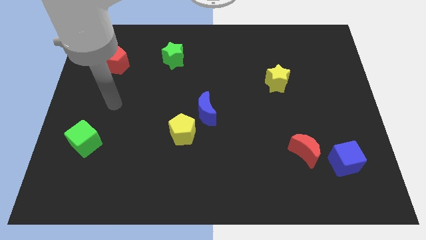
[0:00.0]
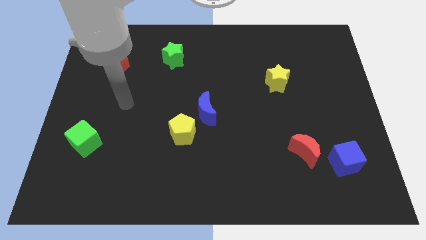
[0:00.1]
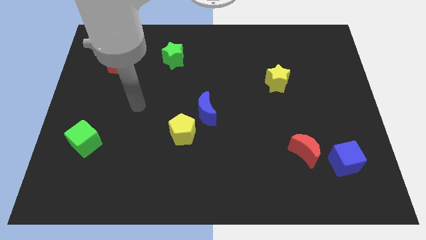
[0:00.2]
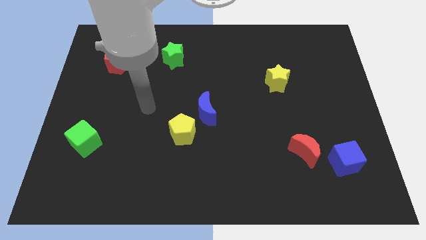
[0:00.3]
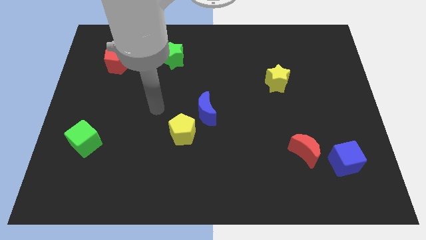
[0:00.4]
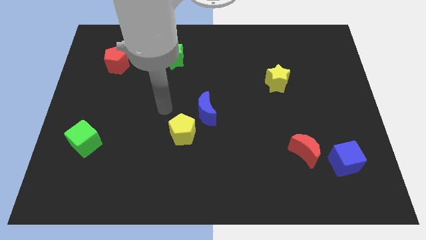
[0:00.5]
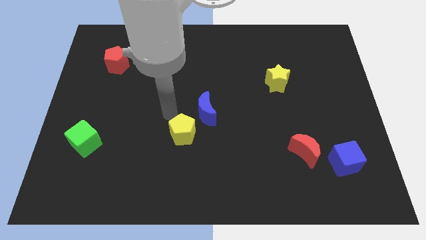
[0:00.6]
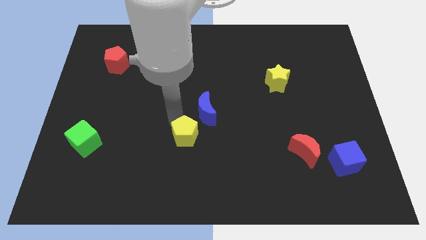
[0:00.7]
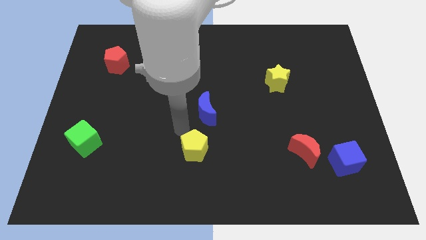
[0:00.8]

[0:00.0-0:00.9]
pull the blue moon apart from the yellow pentagon

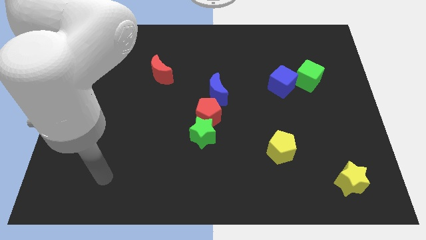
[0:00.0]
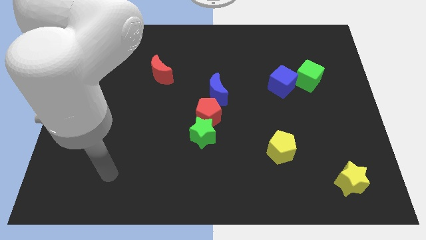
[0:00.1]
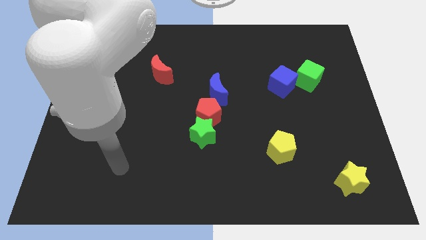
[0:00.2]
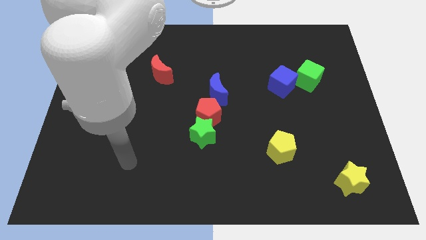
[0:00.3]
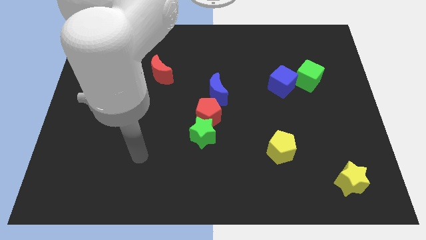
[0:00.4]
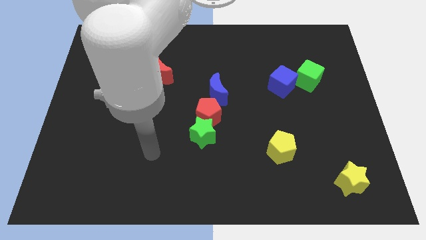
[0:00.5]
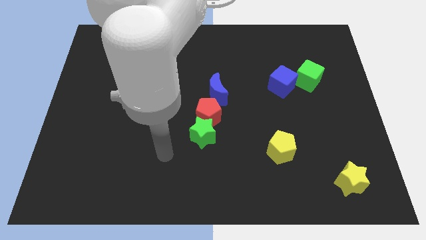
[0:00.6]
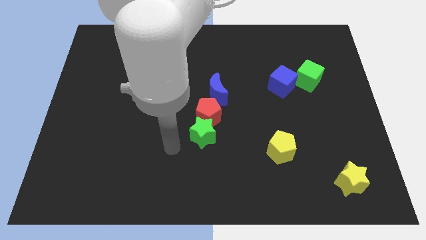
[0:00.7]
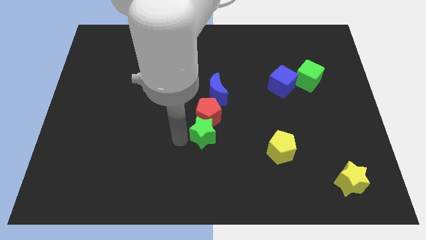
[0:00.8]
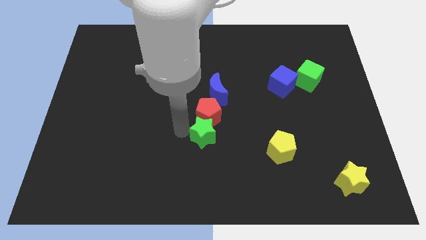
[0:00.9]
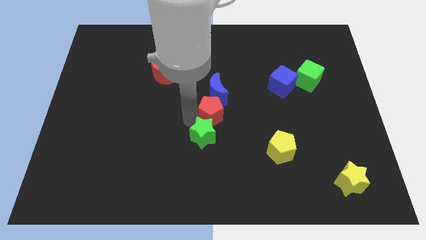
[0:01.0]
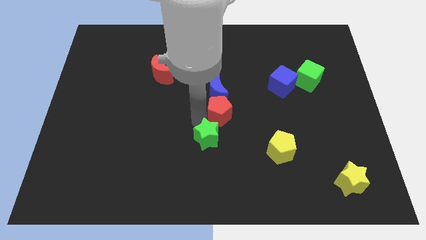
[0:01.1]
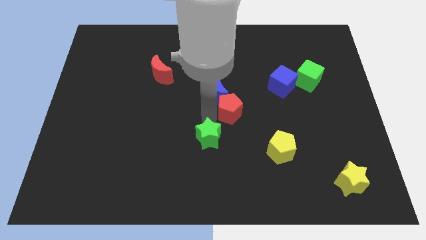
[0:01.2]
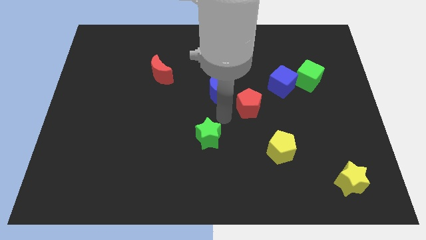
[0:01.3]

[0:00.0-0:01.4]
move the green star away from the red pentagon

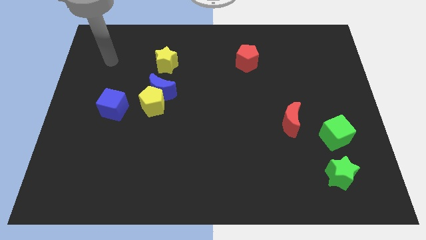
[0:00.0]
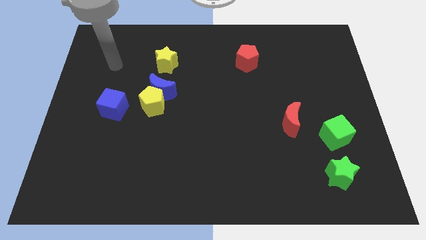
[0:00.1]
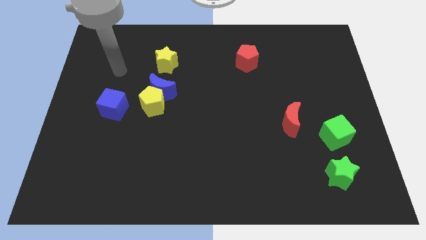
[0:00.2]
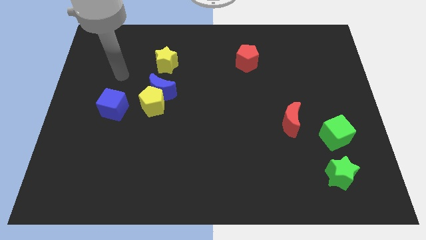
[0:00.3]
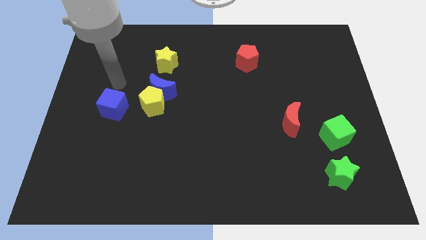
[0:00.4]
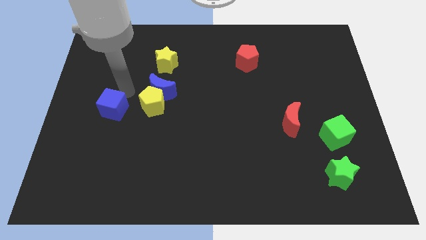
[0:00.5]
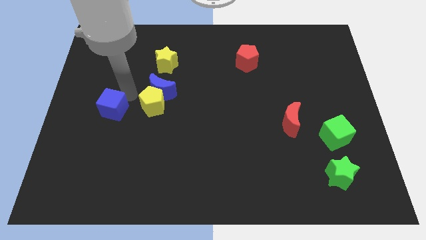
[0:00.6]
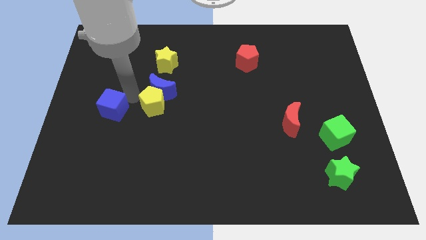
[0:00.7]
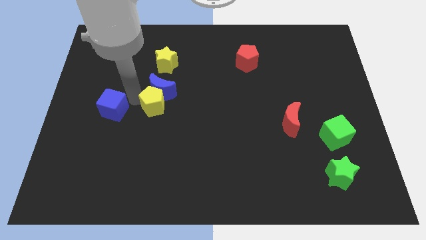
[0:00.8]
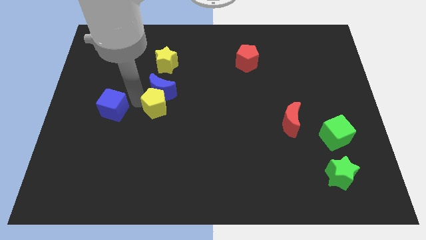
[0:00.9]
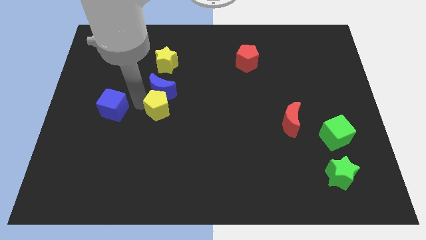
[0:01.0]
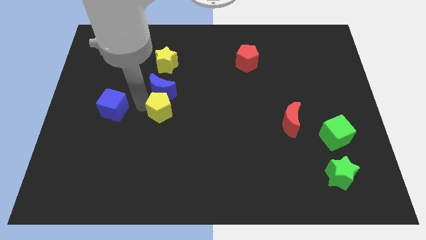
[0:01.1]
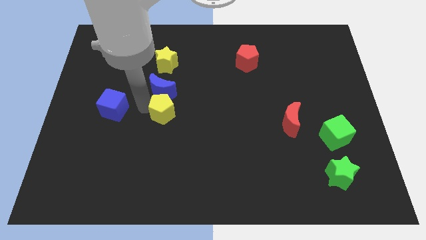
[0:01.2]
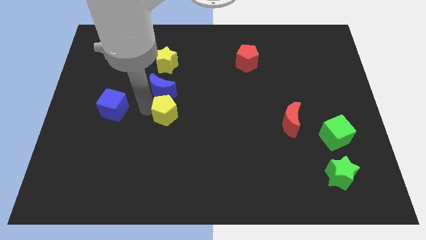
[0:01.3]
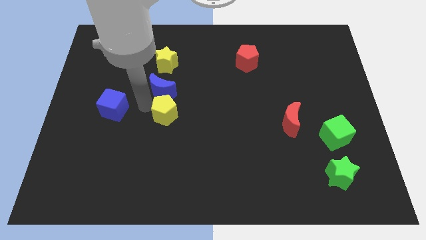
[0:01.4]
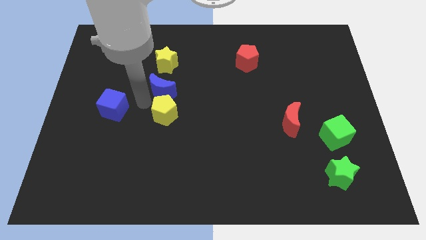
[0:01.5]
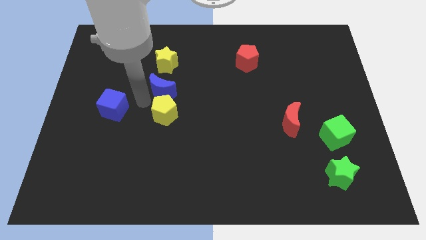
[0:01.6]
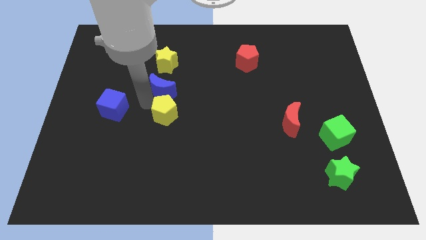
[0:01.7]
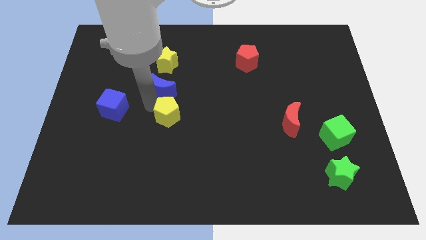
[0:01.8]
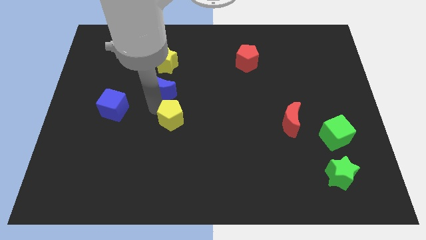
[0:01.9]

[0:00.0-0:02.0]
pull the yellow pentagon apart from the blue moon and blue cube

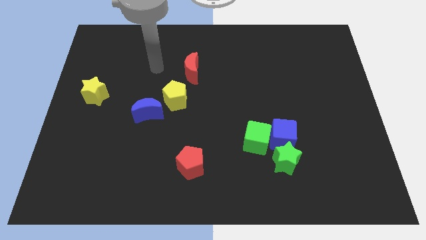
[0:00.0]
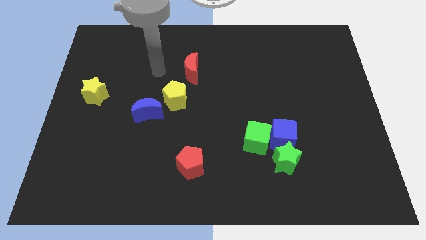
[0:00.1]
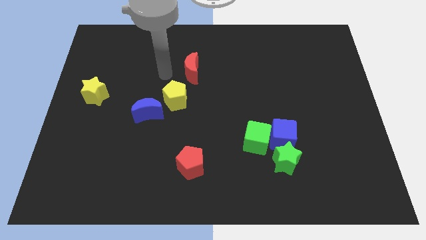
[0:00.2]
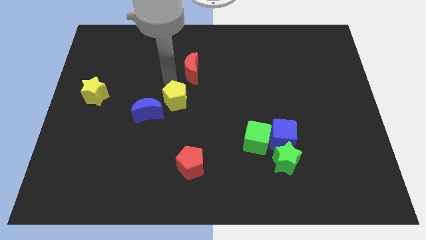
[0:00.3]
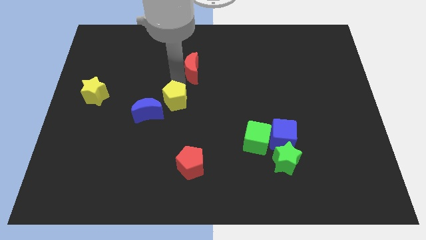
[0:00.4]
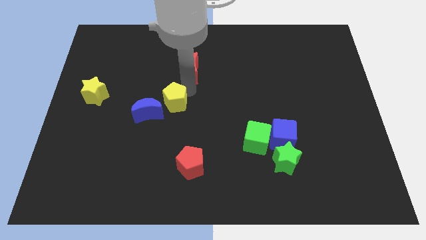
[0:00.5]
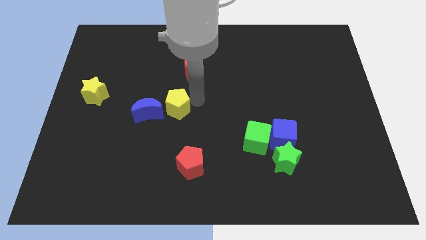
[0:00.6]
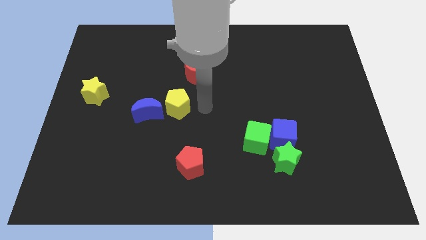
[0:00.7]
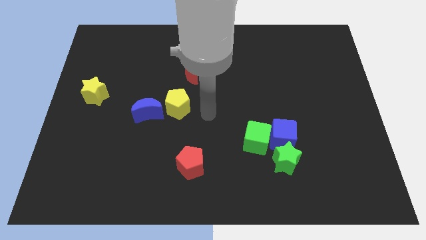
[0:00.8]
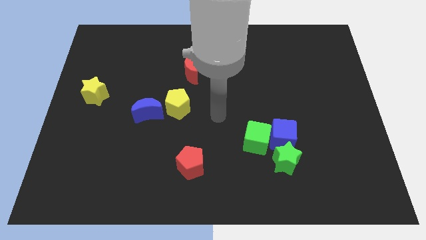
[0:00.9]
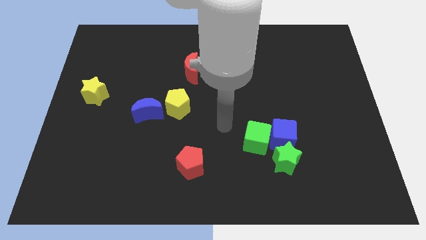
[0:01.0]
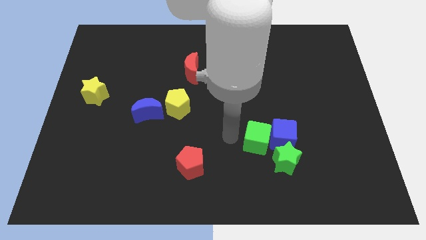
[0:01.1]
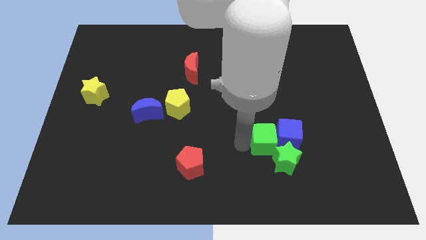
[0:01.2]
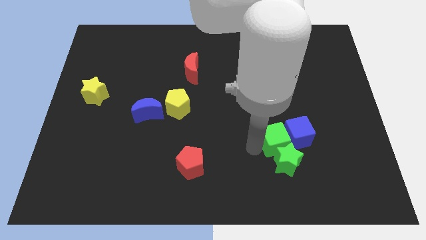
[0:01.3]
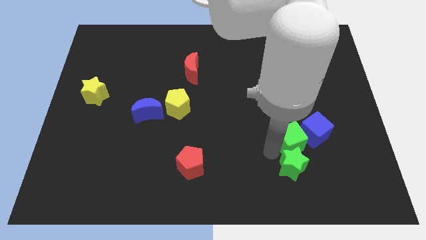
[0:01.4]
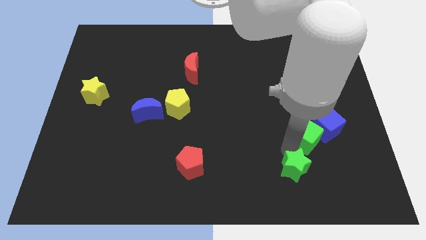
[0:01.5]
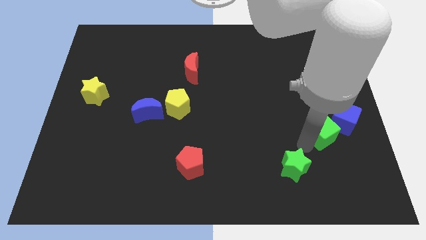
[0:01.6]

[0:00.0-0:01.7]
move the blue cube away from the green star and green cube

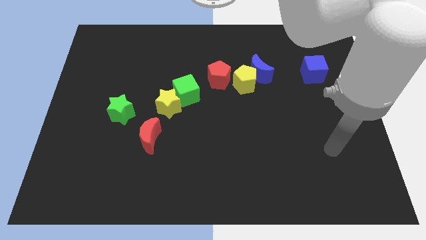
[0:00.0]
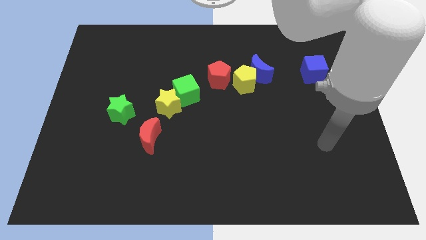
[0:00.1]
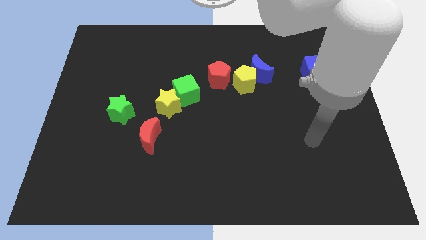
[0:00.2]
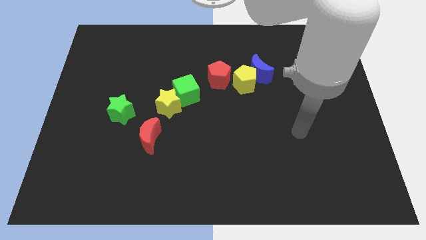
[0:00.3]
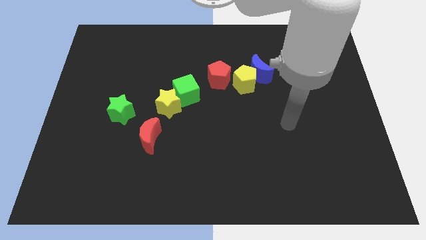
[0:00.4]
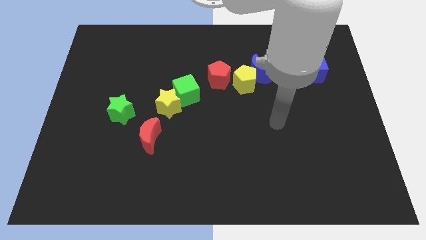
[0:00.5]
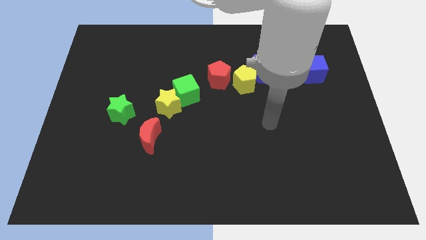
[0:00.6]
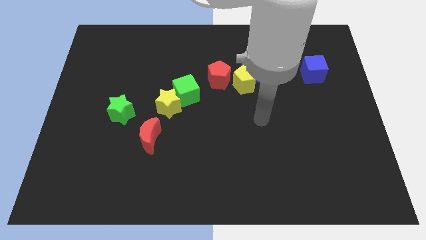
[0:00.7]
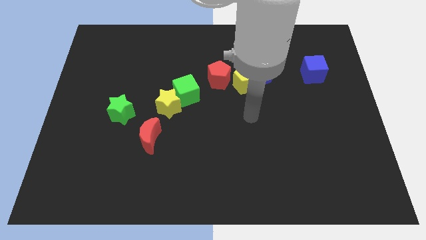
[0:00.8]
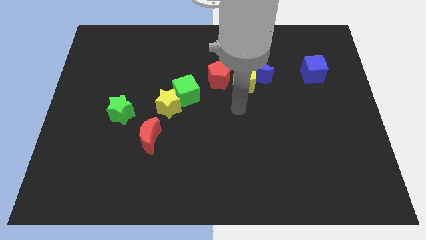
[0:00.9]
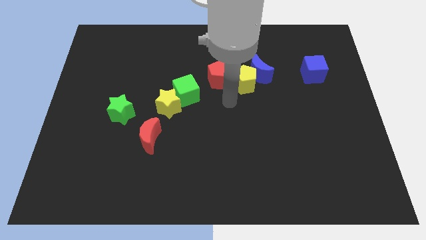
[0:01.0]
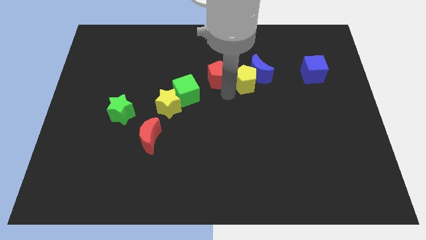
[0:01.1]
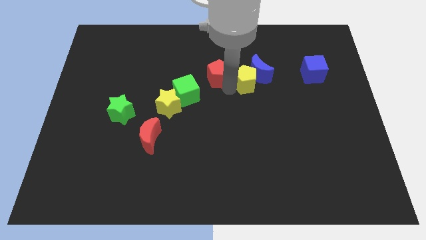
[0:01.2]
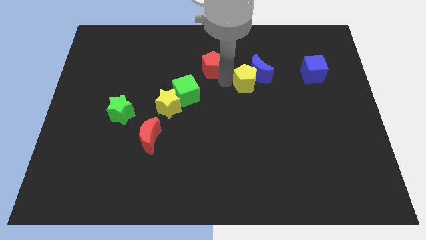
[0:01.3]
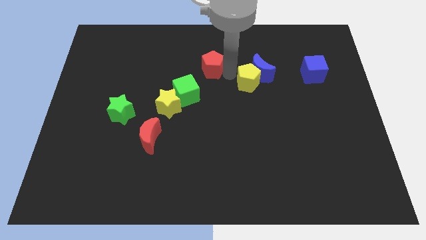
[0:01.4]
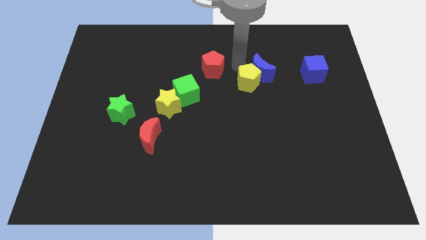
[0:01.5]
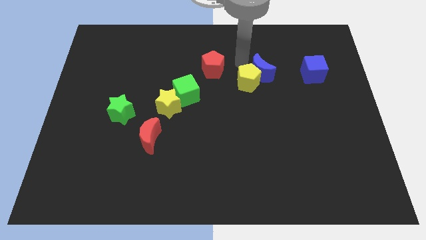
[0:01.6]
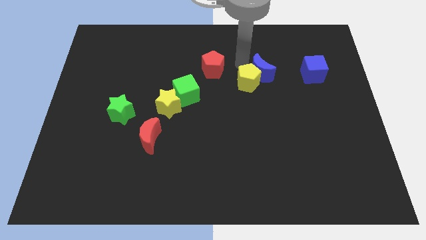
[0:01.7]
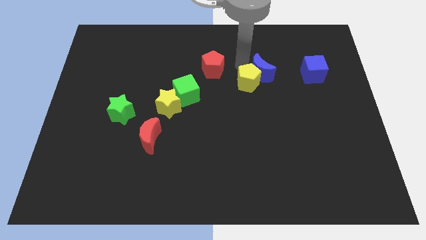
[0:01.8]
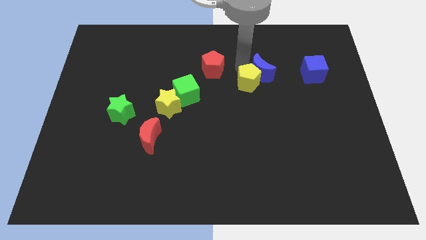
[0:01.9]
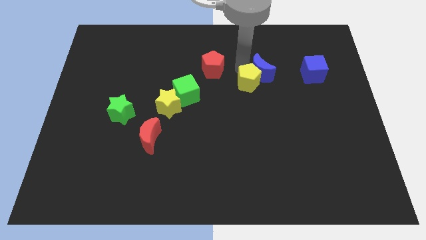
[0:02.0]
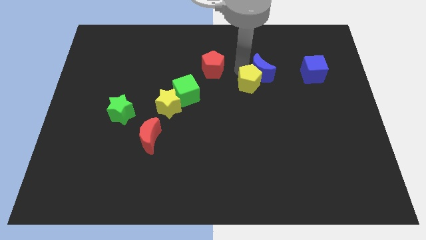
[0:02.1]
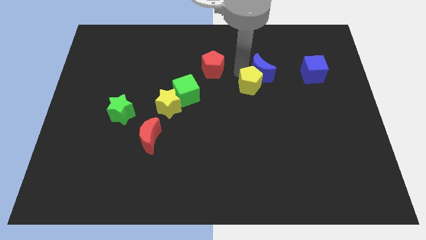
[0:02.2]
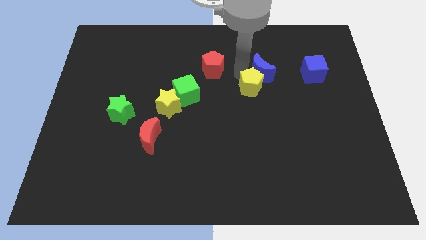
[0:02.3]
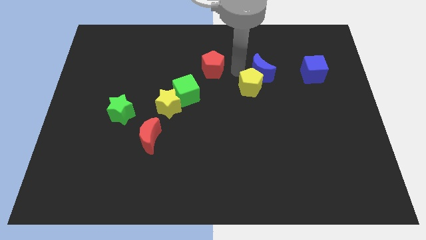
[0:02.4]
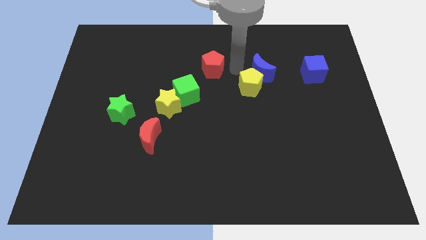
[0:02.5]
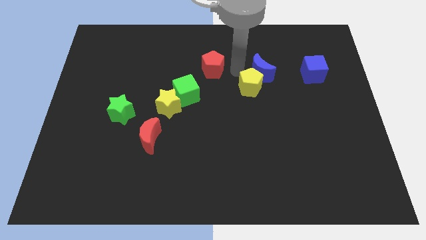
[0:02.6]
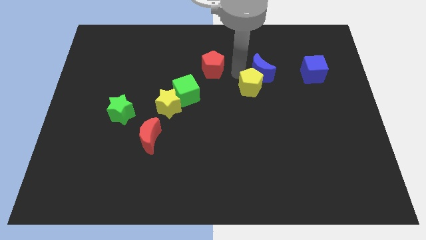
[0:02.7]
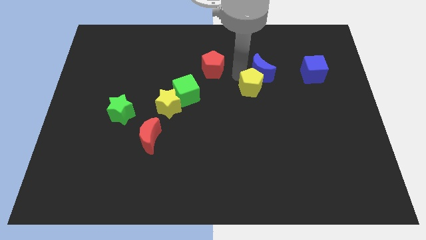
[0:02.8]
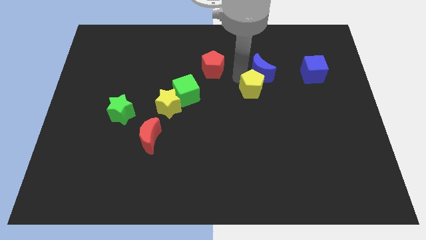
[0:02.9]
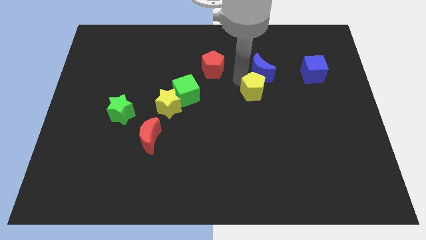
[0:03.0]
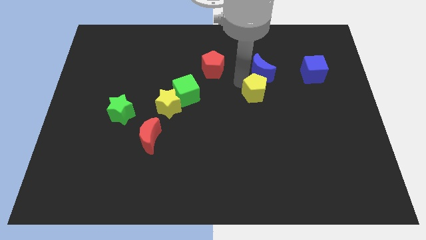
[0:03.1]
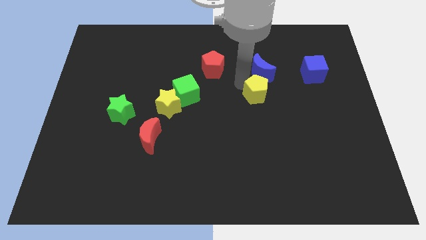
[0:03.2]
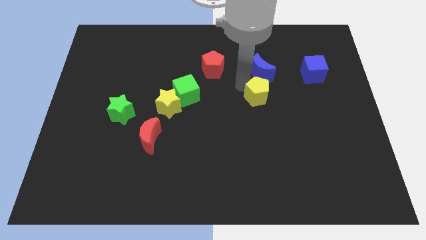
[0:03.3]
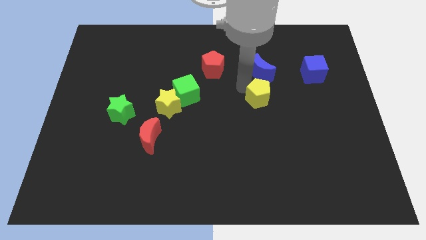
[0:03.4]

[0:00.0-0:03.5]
separate the yellow pentagon from the blue moon and red pentagon

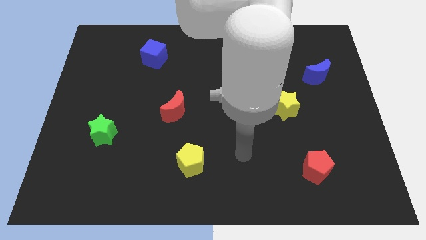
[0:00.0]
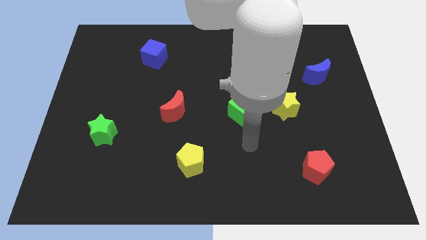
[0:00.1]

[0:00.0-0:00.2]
move the green cube away from the yellow star
